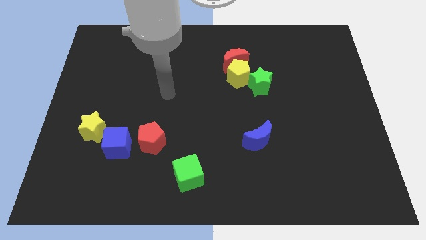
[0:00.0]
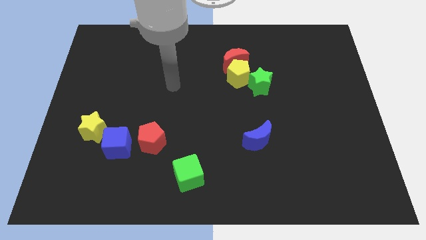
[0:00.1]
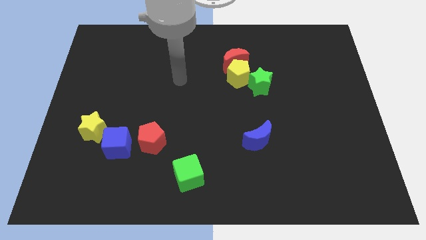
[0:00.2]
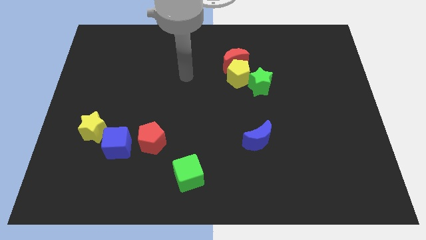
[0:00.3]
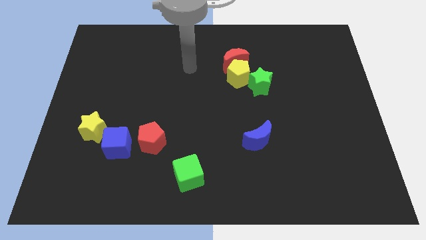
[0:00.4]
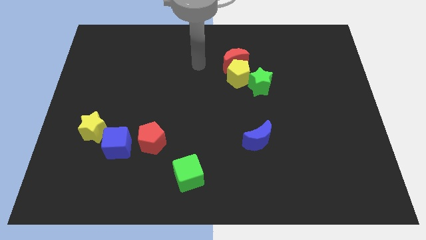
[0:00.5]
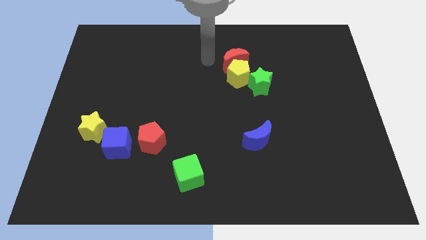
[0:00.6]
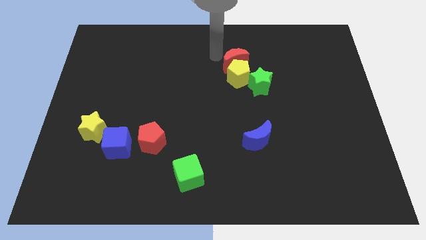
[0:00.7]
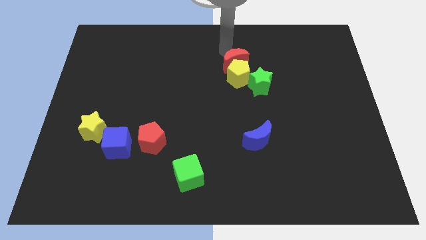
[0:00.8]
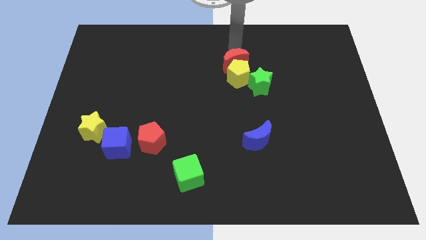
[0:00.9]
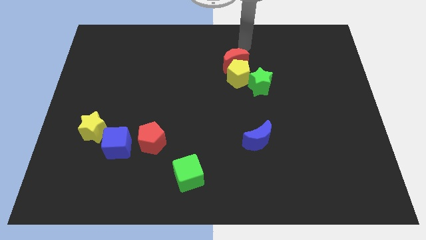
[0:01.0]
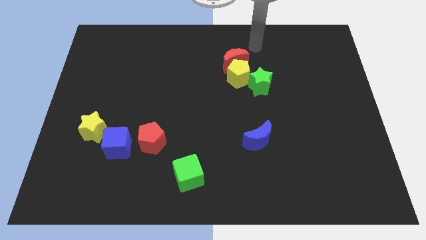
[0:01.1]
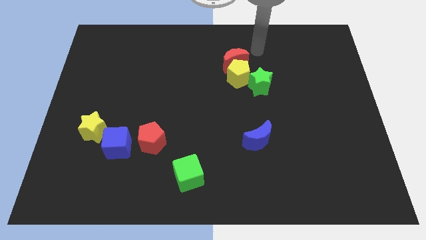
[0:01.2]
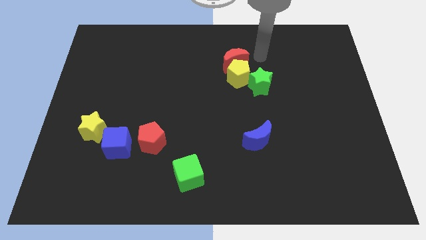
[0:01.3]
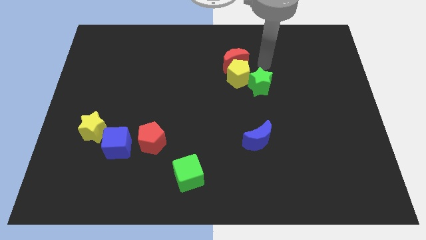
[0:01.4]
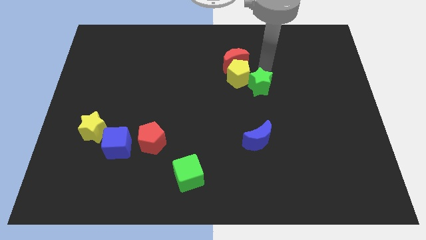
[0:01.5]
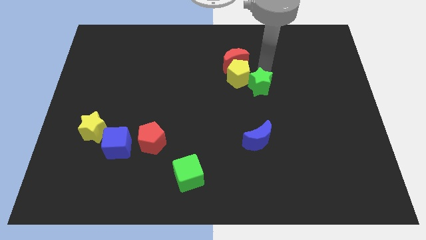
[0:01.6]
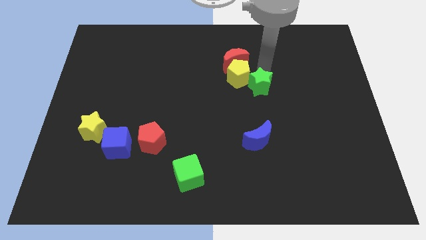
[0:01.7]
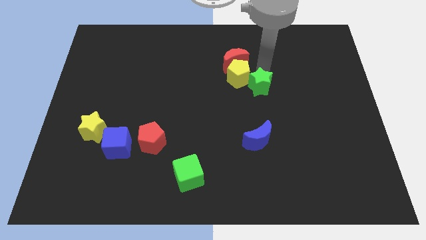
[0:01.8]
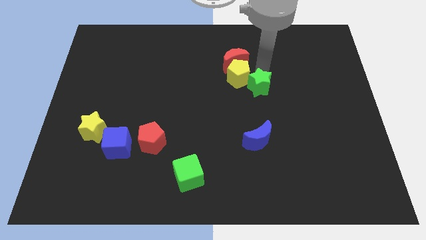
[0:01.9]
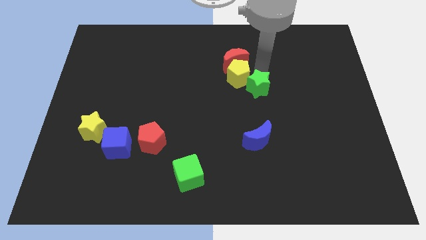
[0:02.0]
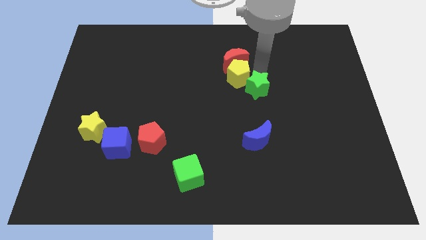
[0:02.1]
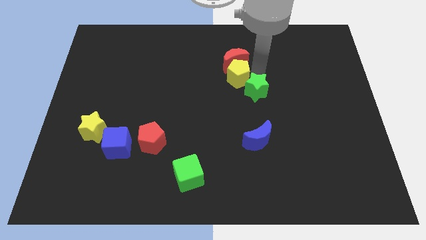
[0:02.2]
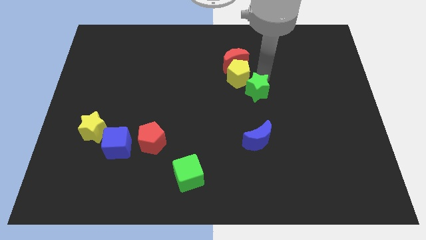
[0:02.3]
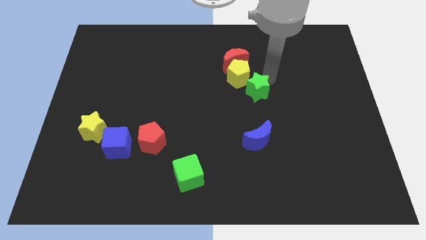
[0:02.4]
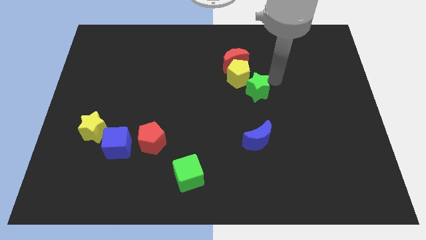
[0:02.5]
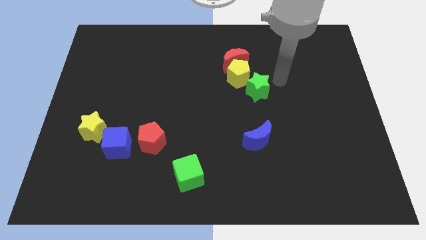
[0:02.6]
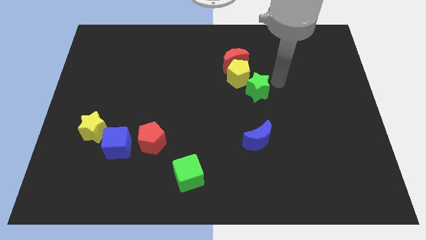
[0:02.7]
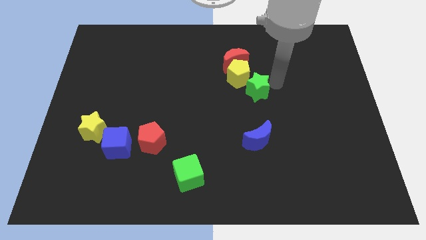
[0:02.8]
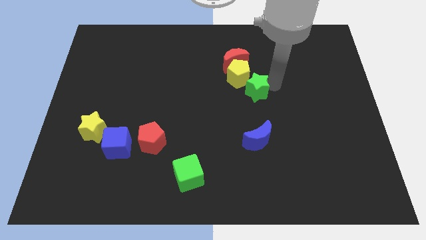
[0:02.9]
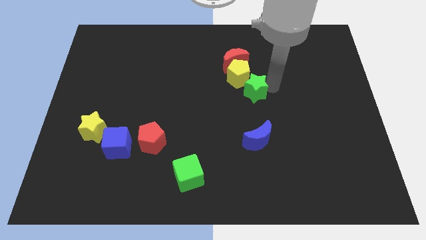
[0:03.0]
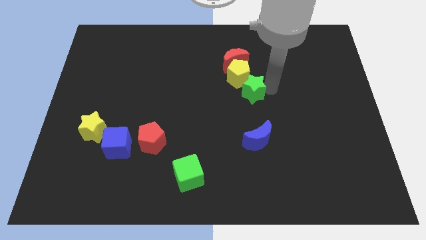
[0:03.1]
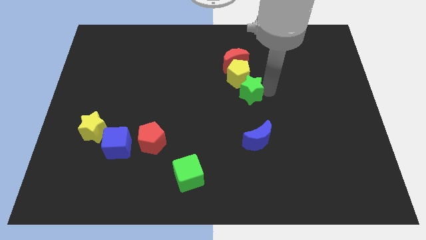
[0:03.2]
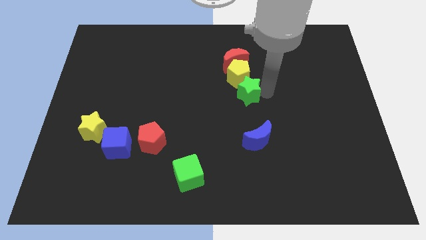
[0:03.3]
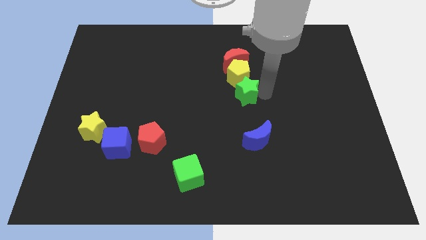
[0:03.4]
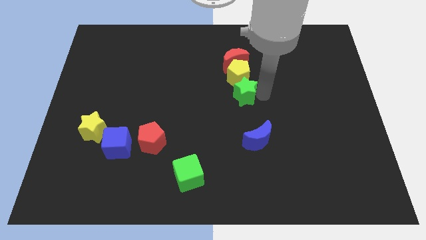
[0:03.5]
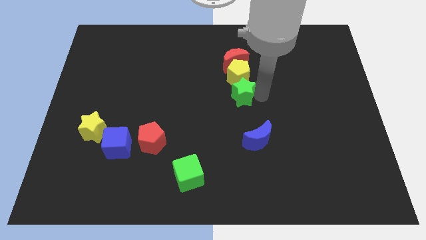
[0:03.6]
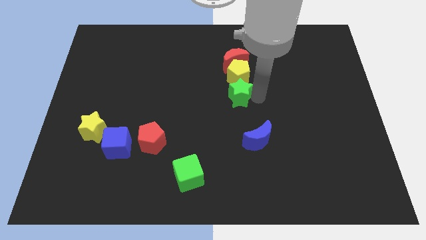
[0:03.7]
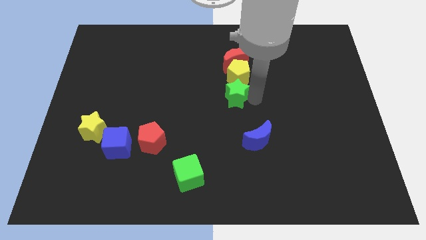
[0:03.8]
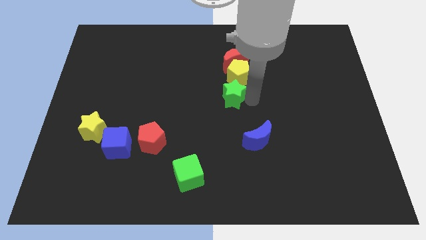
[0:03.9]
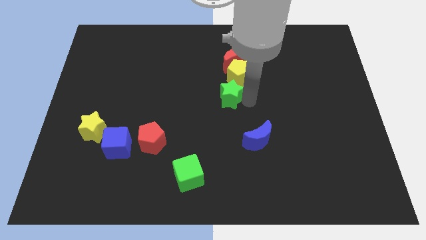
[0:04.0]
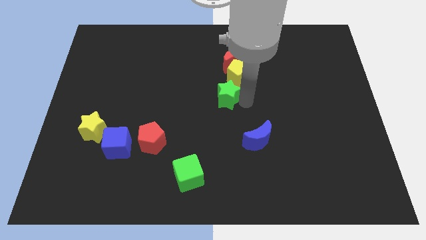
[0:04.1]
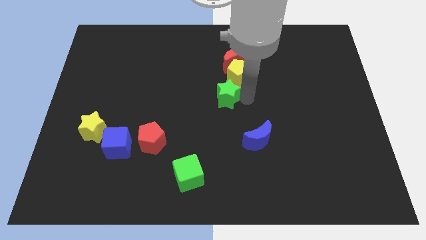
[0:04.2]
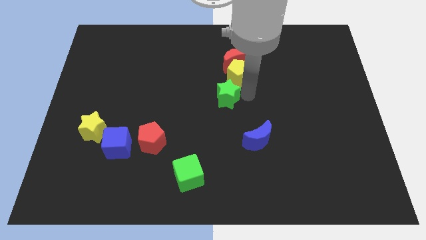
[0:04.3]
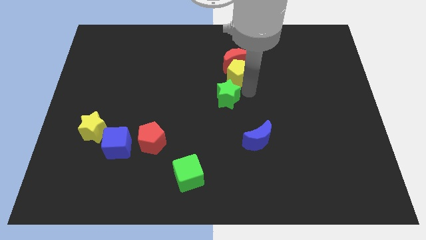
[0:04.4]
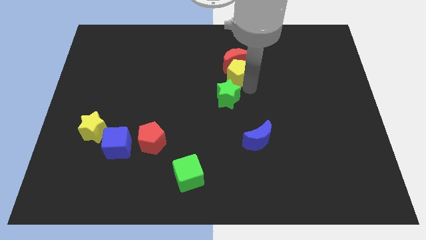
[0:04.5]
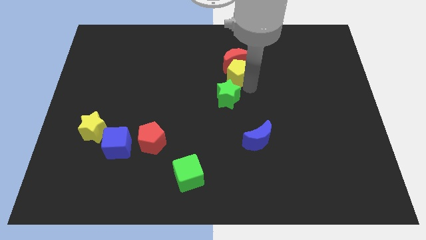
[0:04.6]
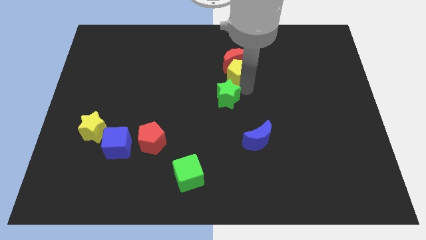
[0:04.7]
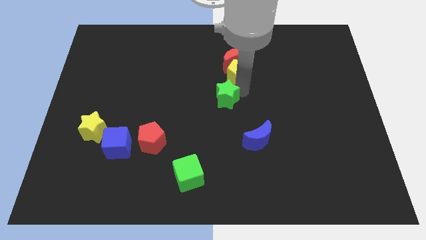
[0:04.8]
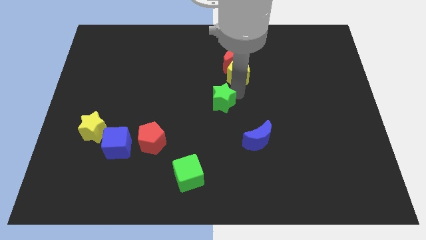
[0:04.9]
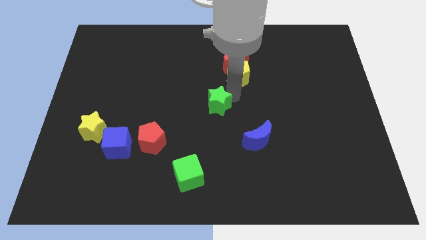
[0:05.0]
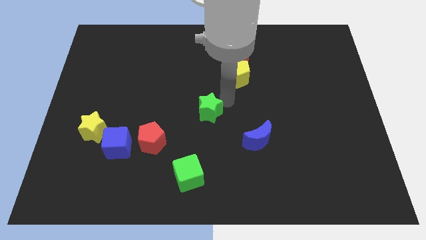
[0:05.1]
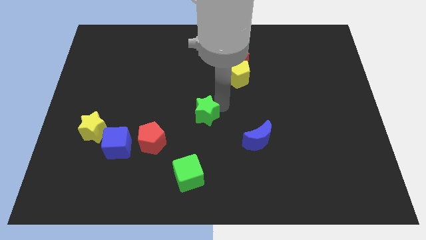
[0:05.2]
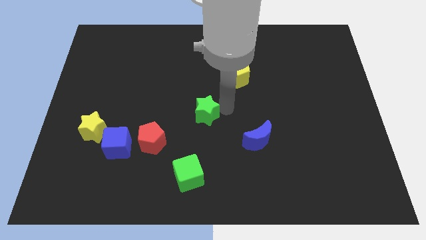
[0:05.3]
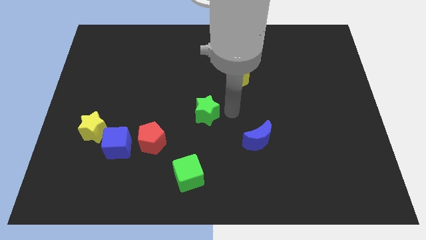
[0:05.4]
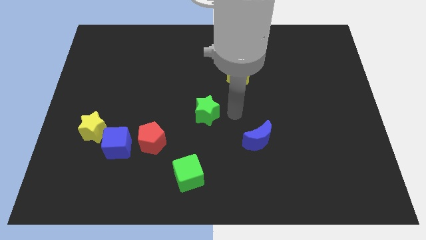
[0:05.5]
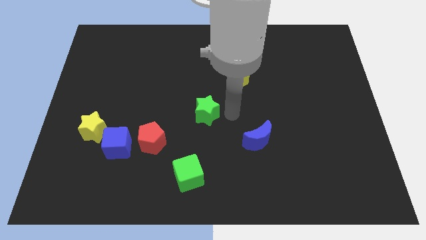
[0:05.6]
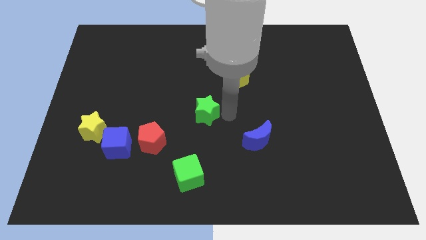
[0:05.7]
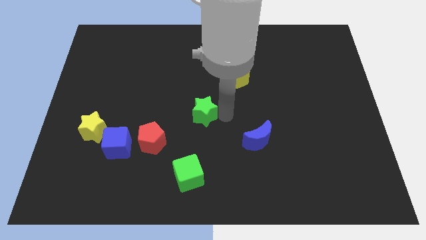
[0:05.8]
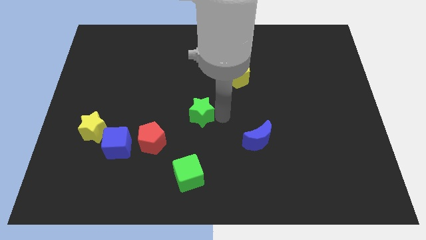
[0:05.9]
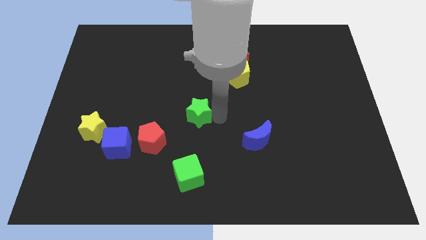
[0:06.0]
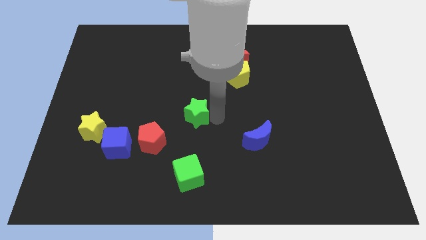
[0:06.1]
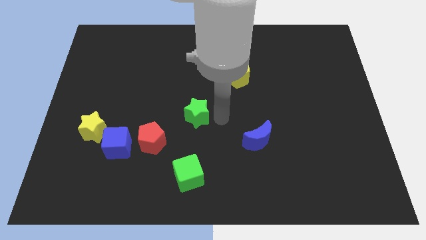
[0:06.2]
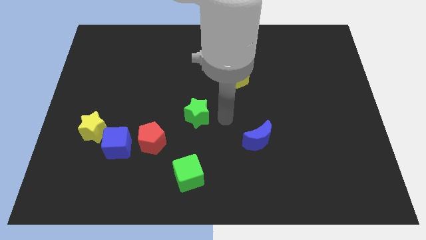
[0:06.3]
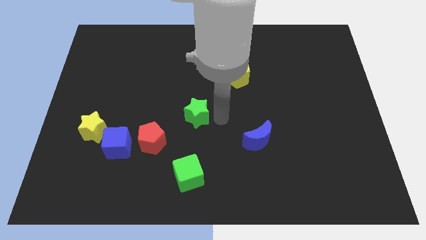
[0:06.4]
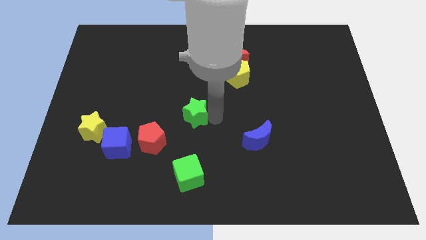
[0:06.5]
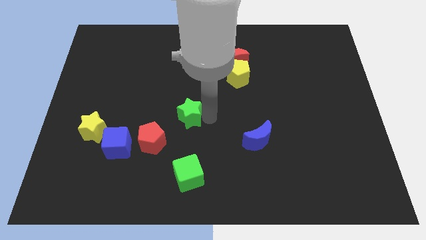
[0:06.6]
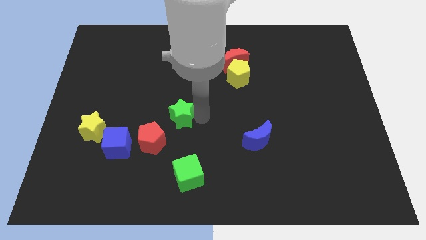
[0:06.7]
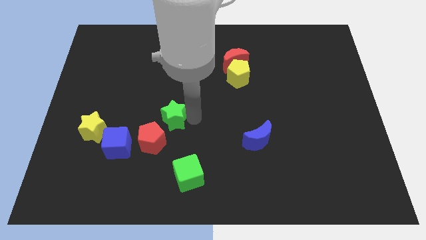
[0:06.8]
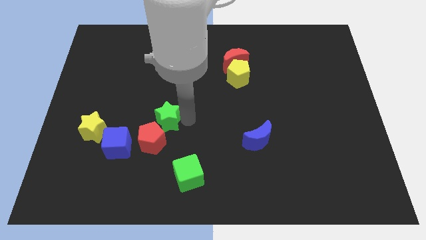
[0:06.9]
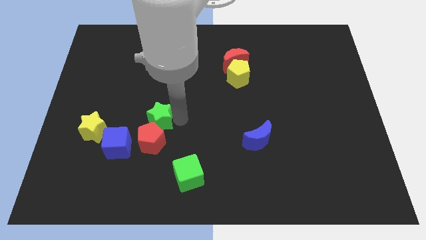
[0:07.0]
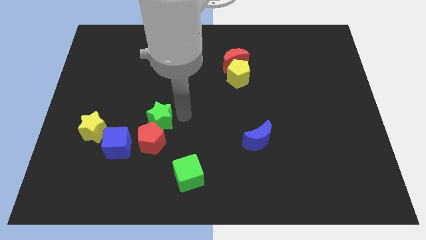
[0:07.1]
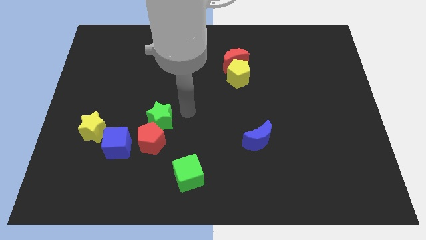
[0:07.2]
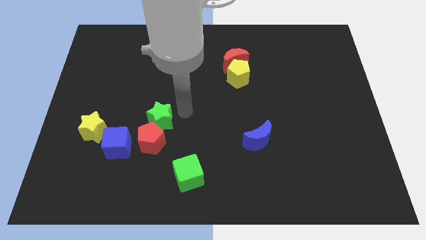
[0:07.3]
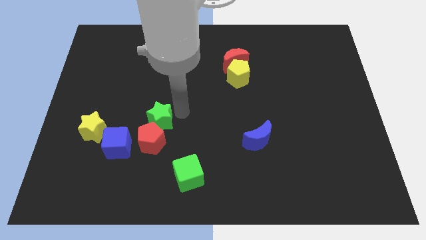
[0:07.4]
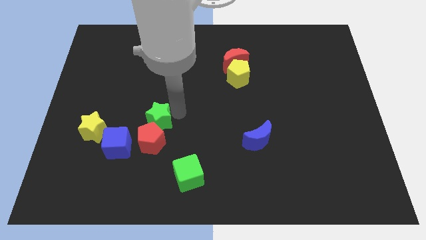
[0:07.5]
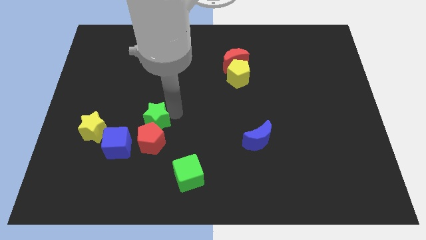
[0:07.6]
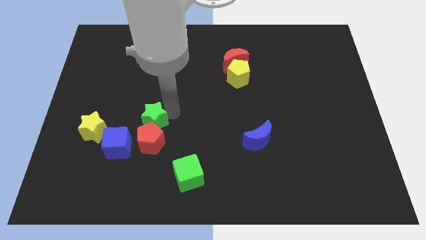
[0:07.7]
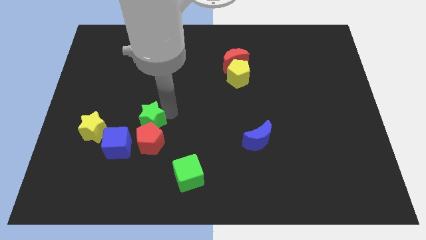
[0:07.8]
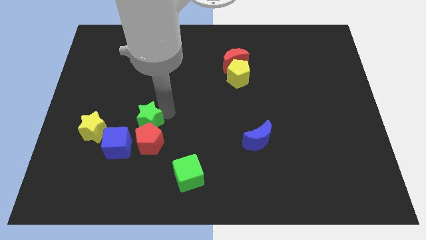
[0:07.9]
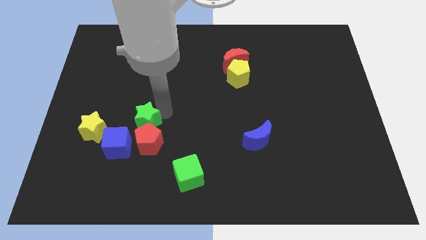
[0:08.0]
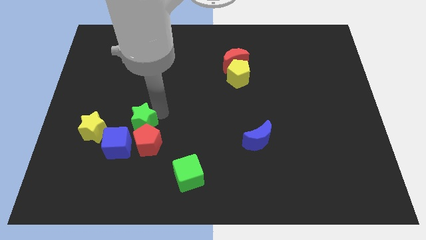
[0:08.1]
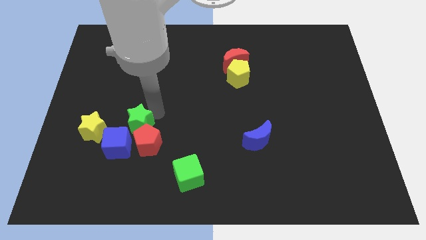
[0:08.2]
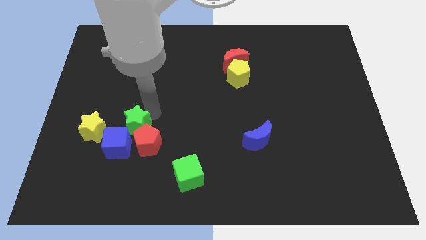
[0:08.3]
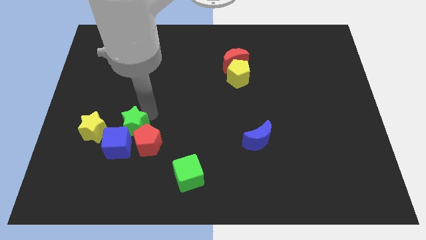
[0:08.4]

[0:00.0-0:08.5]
put the green star next to the blue cube
